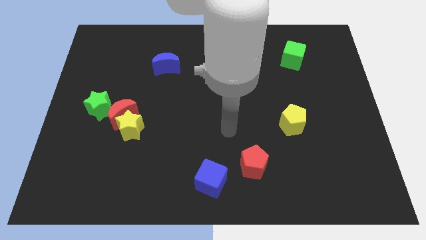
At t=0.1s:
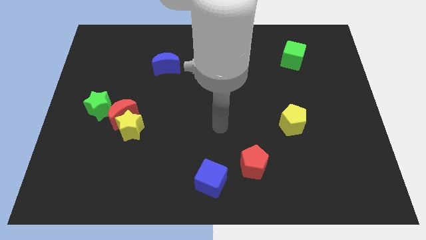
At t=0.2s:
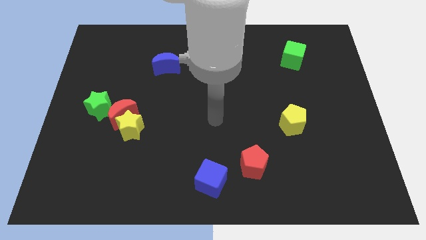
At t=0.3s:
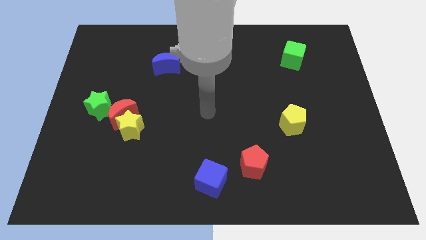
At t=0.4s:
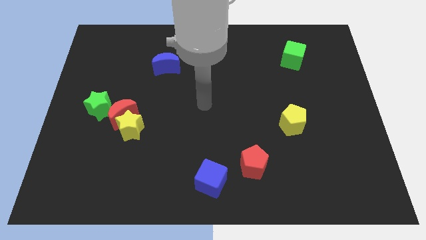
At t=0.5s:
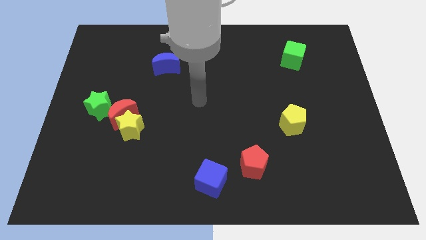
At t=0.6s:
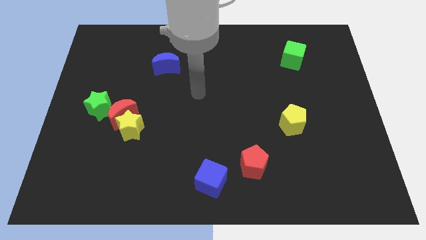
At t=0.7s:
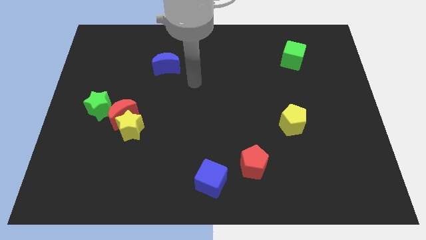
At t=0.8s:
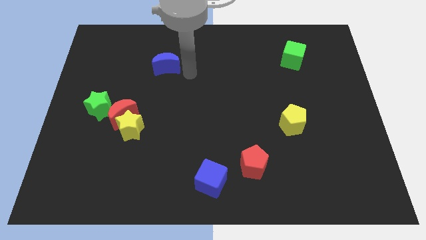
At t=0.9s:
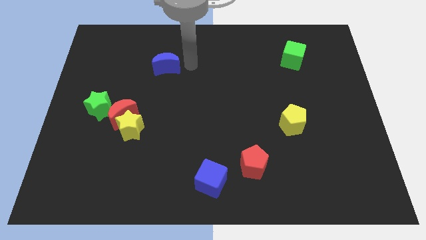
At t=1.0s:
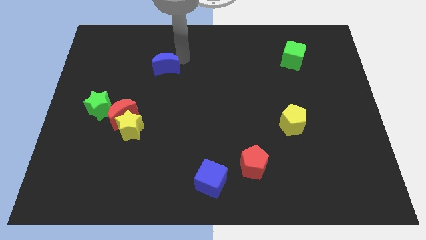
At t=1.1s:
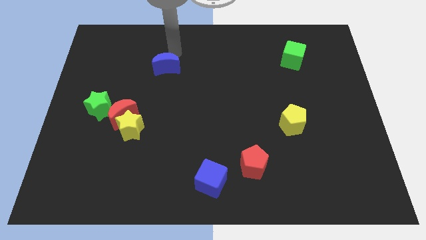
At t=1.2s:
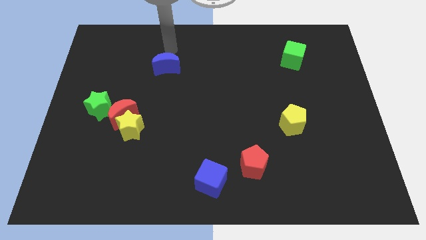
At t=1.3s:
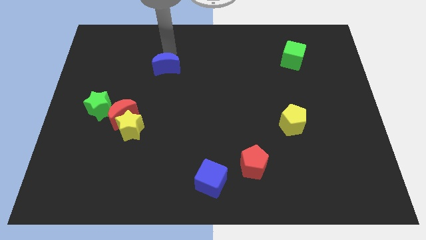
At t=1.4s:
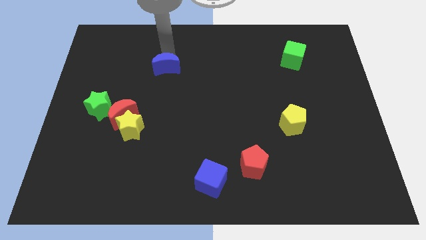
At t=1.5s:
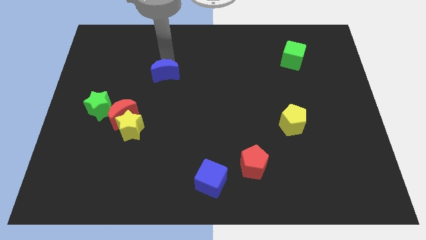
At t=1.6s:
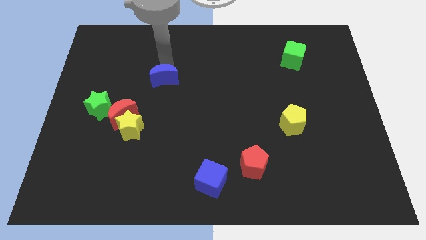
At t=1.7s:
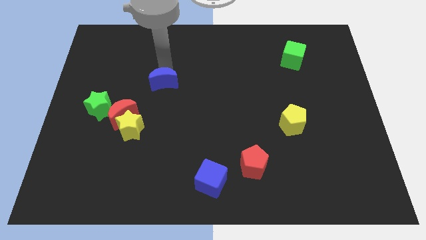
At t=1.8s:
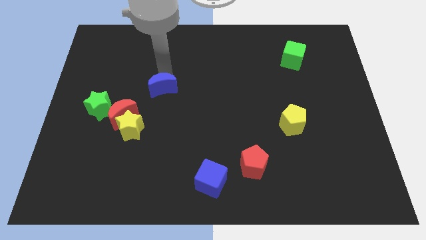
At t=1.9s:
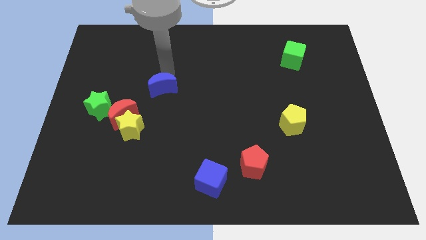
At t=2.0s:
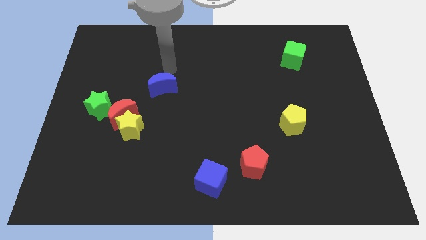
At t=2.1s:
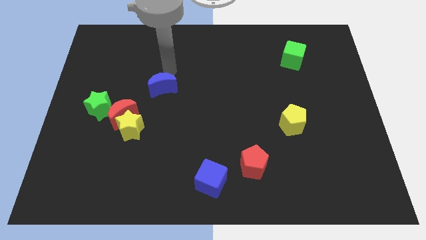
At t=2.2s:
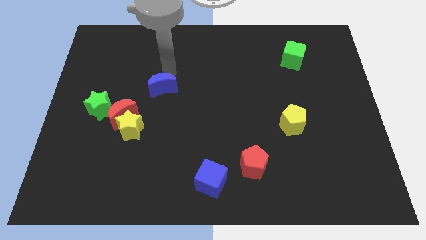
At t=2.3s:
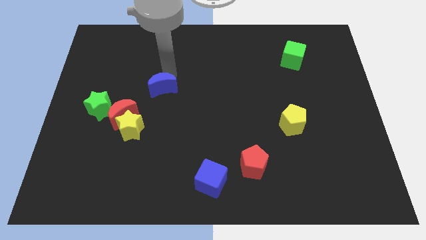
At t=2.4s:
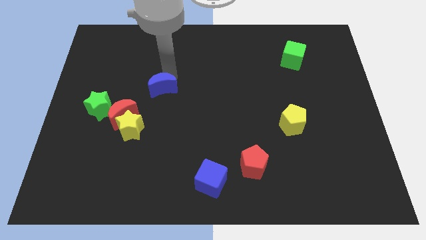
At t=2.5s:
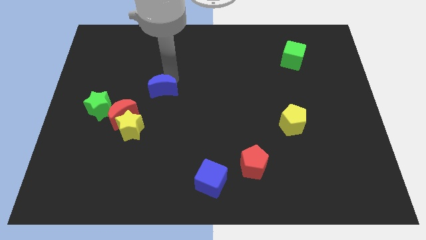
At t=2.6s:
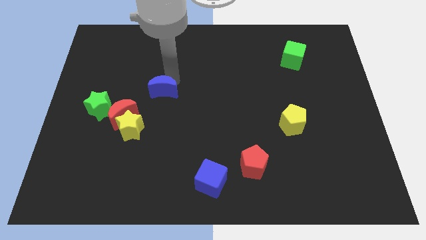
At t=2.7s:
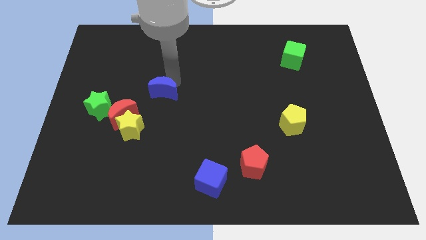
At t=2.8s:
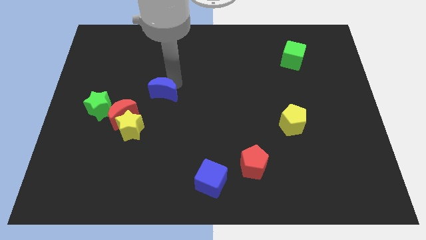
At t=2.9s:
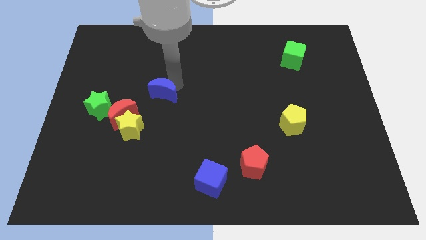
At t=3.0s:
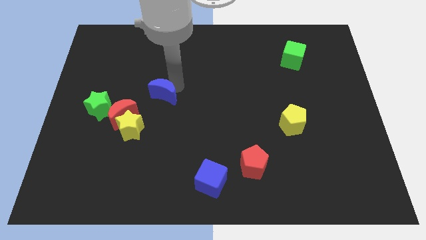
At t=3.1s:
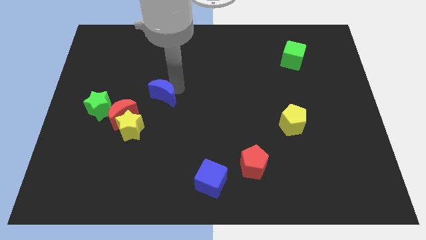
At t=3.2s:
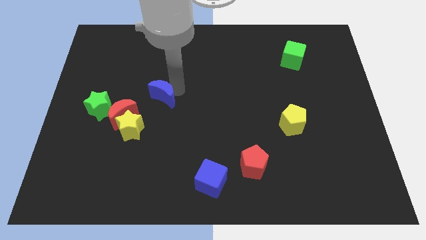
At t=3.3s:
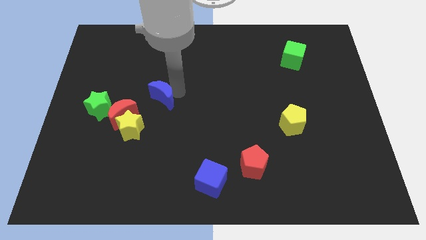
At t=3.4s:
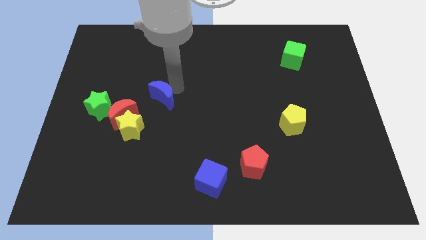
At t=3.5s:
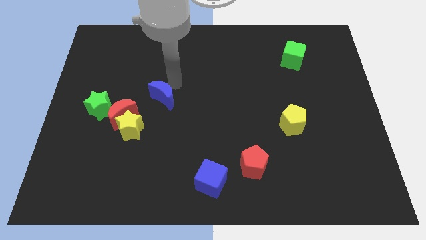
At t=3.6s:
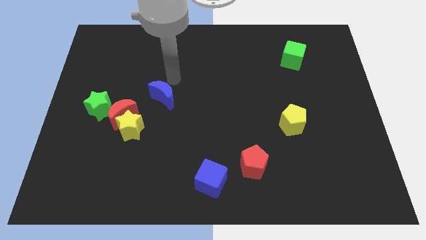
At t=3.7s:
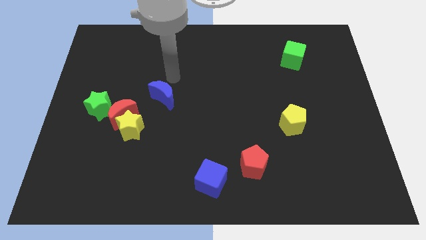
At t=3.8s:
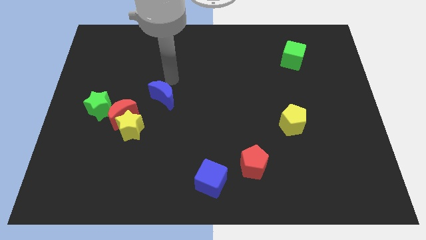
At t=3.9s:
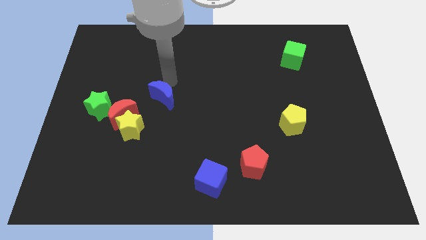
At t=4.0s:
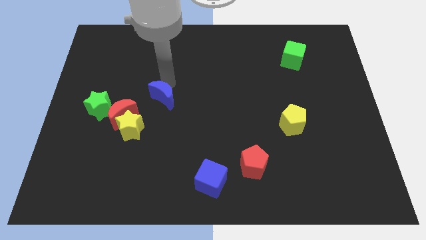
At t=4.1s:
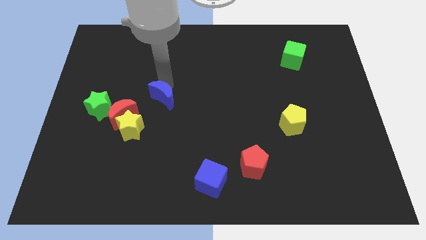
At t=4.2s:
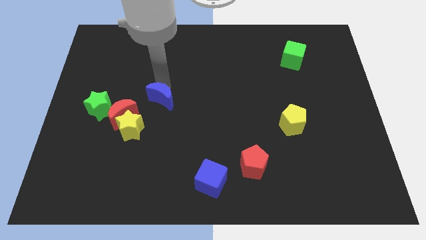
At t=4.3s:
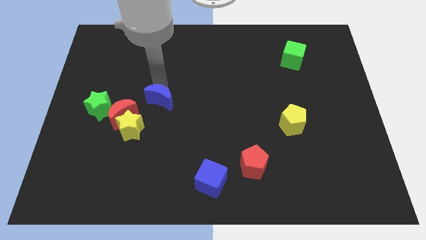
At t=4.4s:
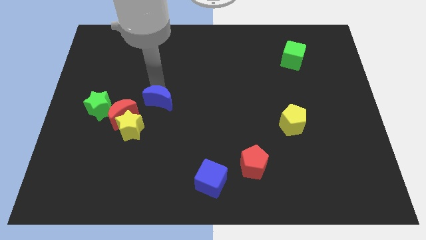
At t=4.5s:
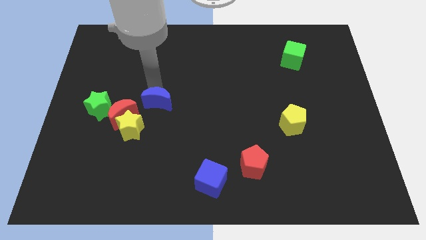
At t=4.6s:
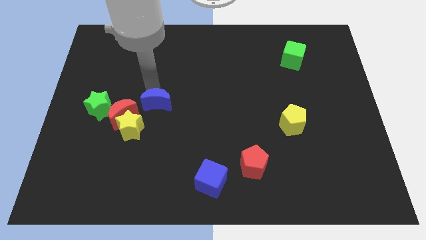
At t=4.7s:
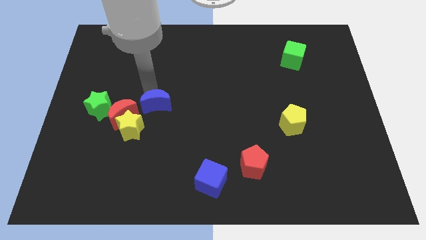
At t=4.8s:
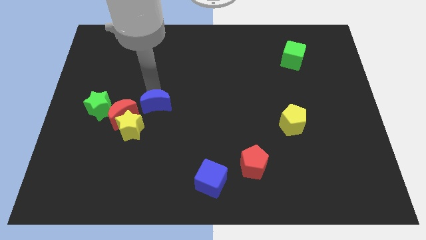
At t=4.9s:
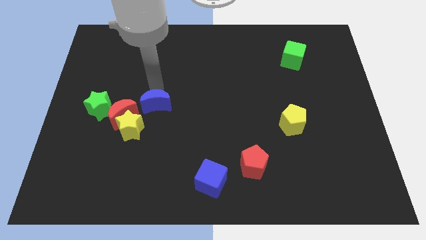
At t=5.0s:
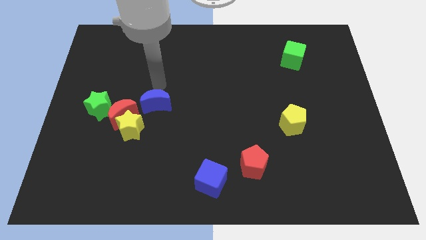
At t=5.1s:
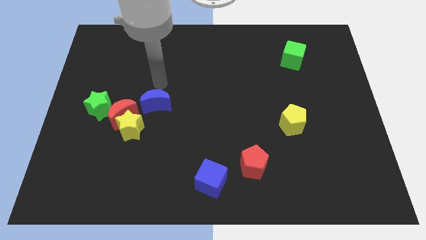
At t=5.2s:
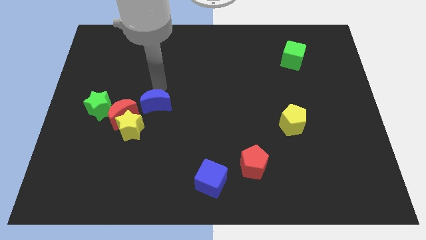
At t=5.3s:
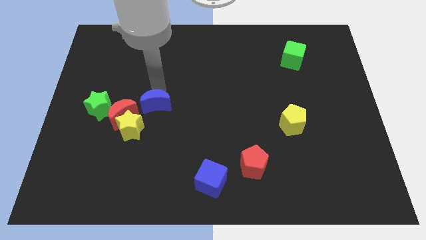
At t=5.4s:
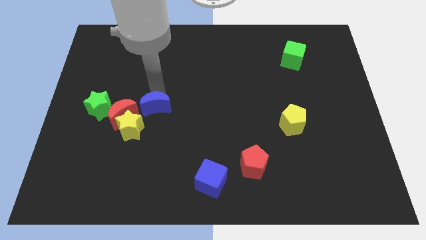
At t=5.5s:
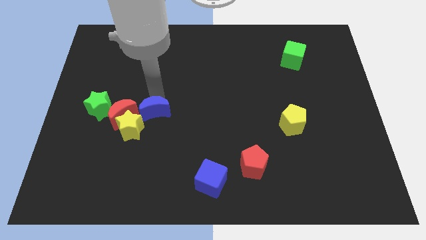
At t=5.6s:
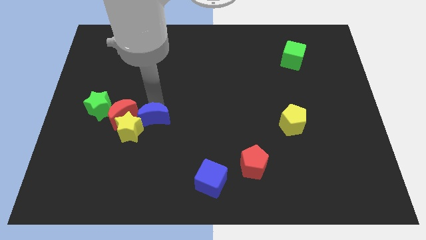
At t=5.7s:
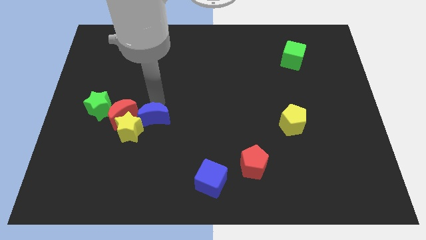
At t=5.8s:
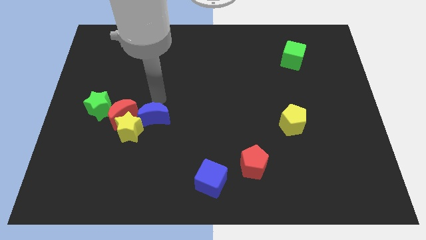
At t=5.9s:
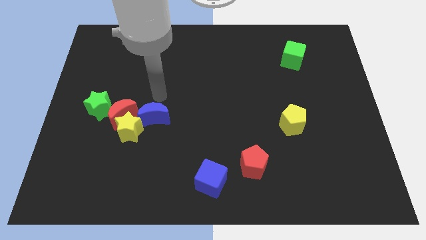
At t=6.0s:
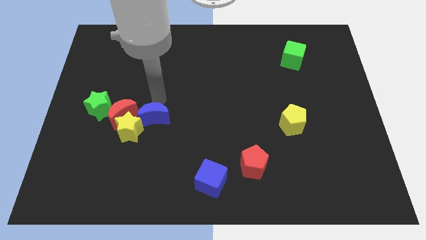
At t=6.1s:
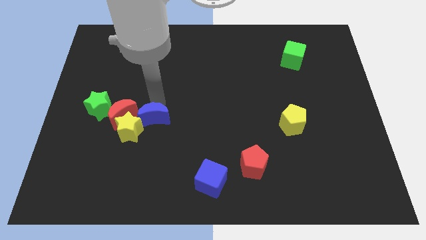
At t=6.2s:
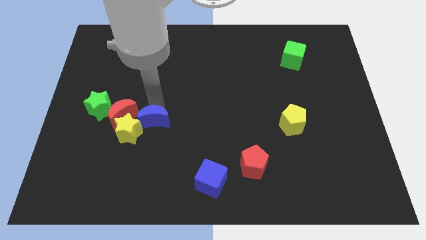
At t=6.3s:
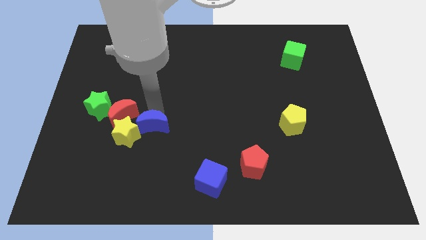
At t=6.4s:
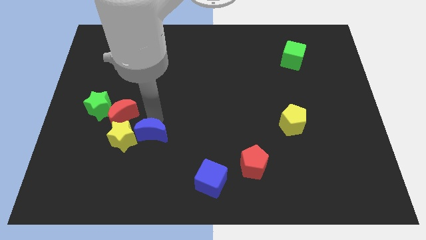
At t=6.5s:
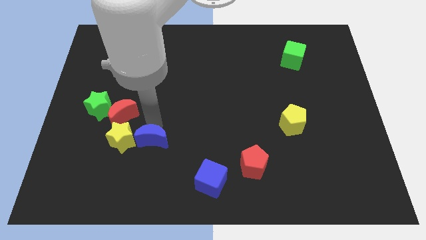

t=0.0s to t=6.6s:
put the blue moon to the bottom right side of the yellow star
